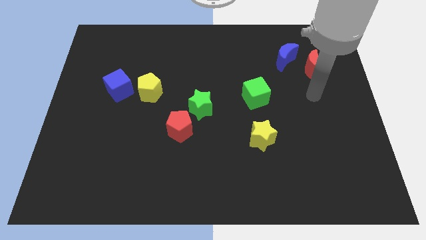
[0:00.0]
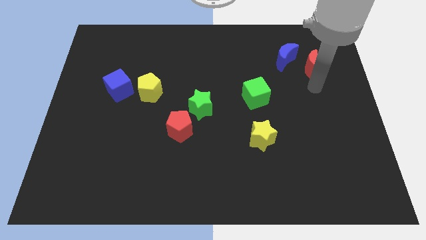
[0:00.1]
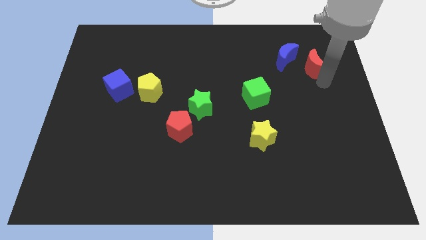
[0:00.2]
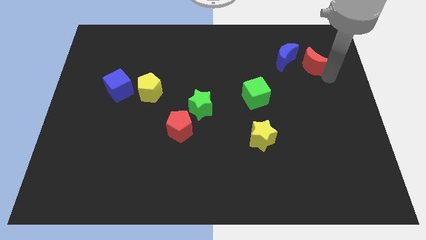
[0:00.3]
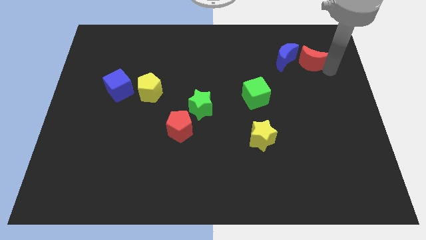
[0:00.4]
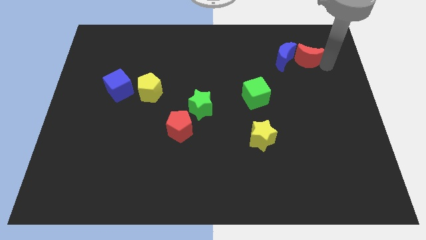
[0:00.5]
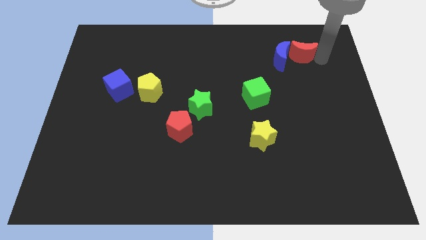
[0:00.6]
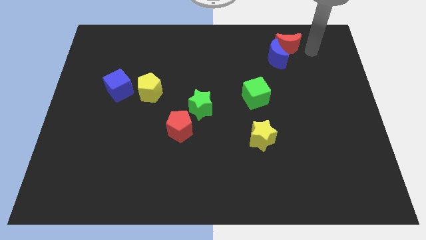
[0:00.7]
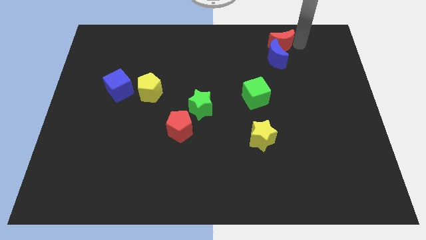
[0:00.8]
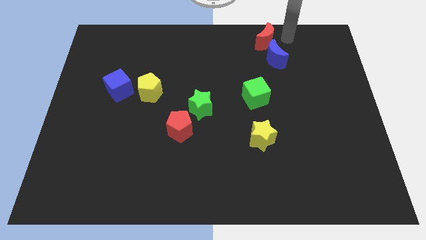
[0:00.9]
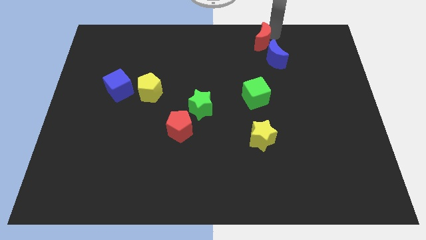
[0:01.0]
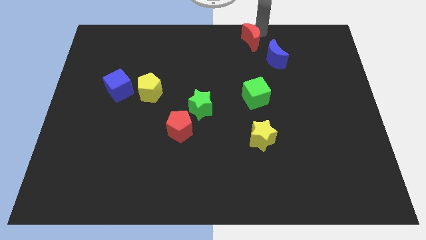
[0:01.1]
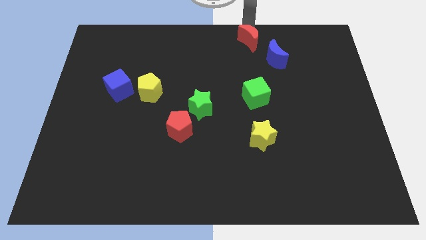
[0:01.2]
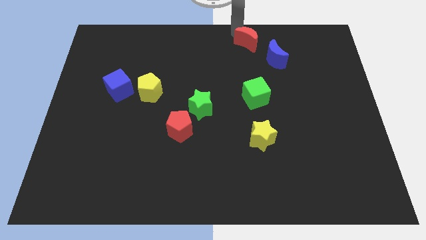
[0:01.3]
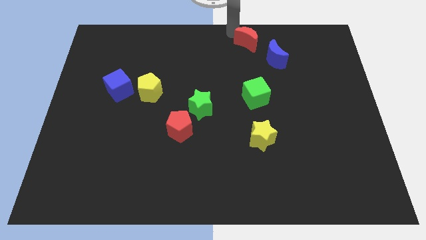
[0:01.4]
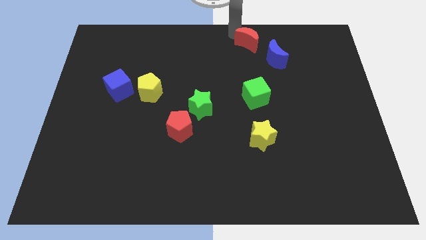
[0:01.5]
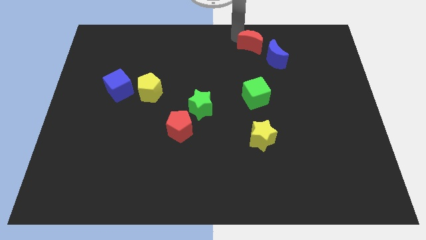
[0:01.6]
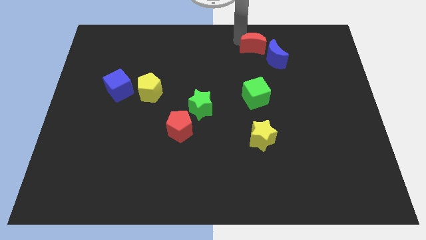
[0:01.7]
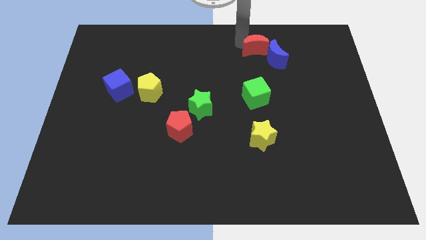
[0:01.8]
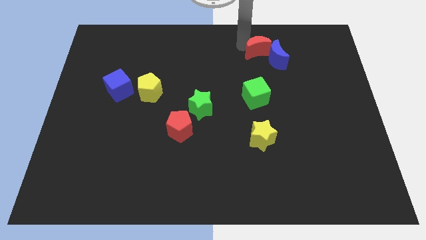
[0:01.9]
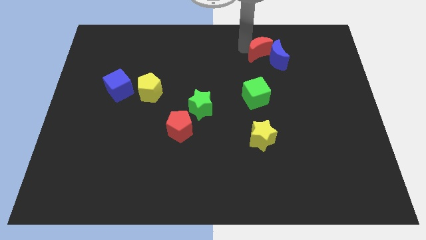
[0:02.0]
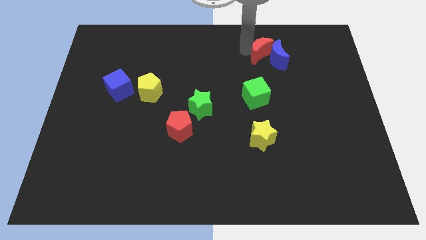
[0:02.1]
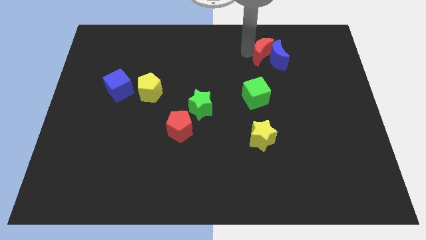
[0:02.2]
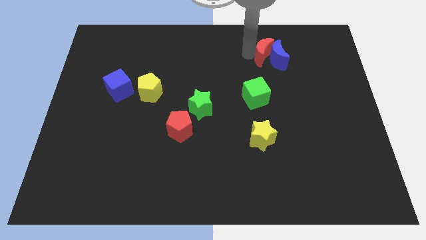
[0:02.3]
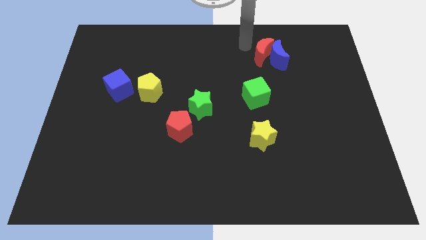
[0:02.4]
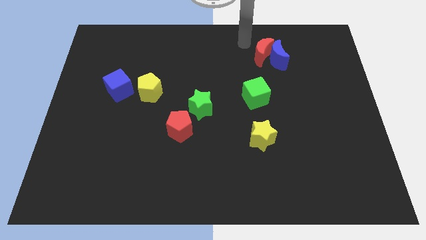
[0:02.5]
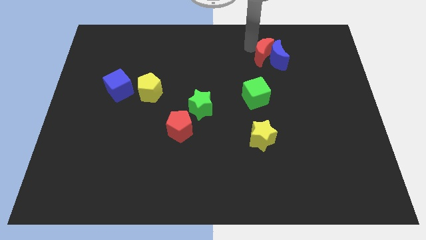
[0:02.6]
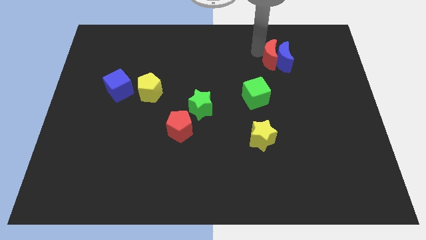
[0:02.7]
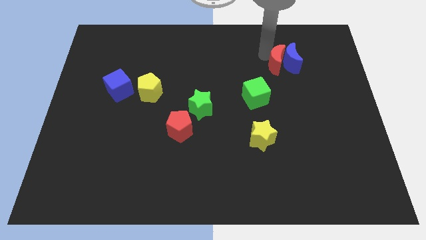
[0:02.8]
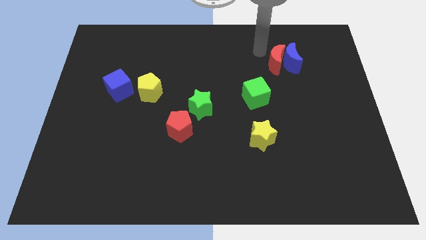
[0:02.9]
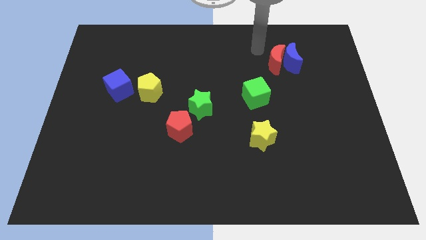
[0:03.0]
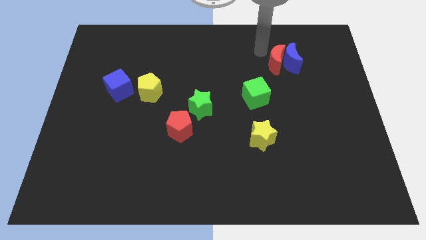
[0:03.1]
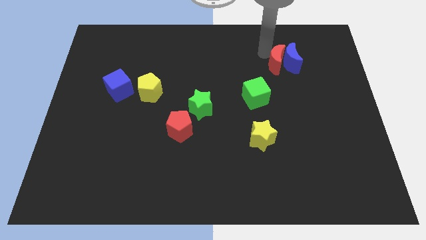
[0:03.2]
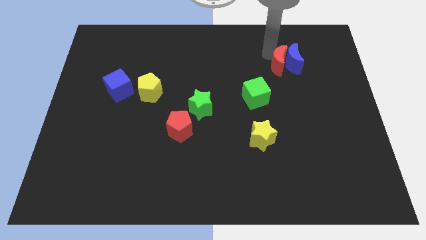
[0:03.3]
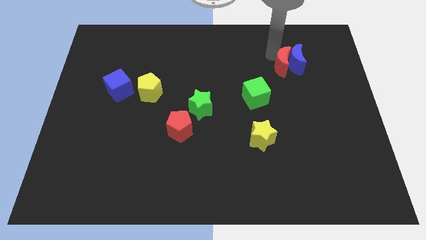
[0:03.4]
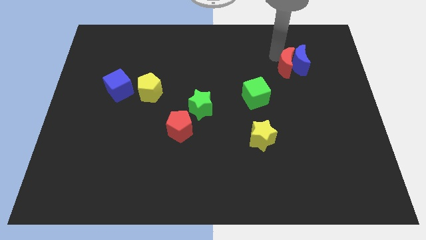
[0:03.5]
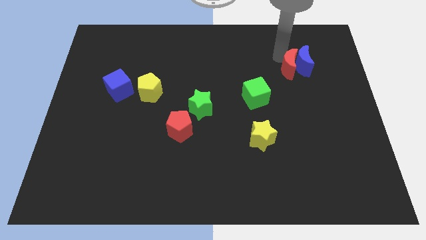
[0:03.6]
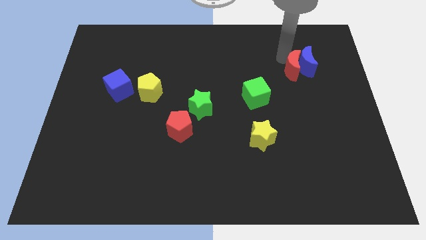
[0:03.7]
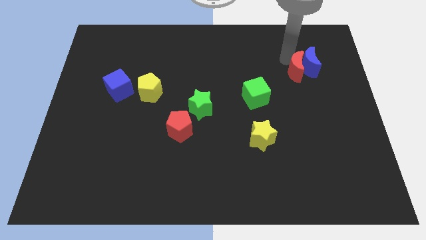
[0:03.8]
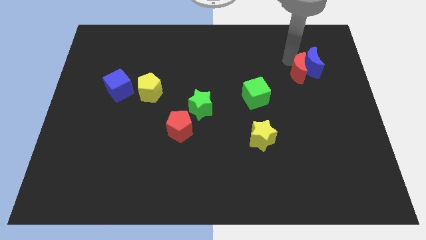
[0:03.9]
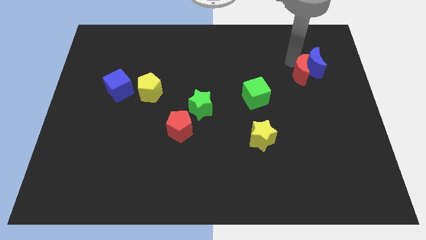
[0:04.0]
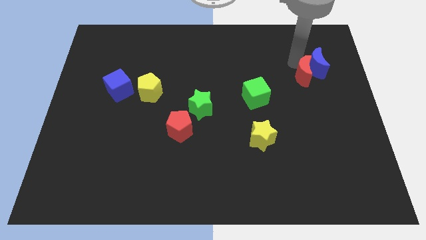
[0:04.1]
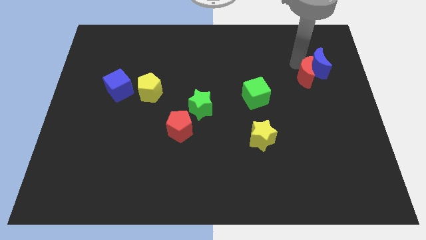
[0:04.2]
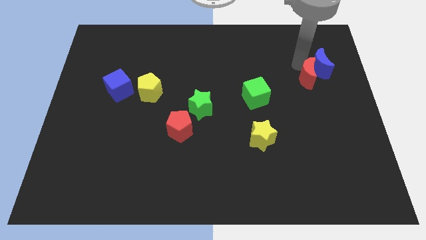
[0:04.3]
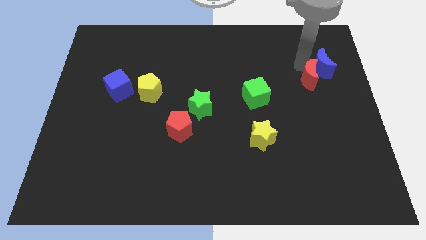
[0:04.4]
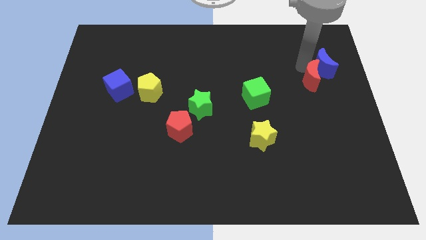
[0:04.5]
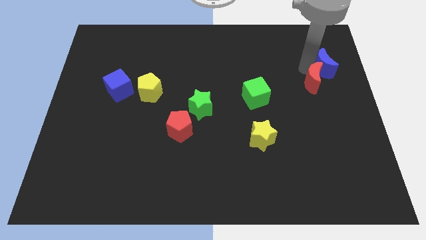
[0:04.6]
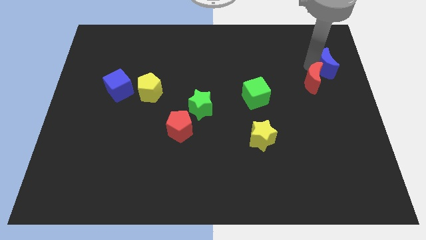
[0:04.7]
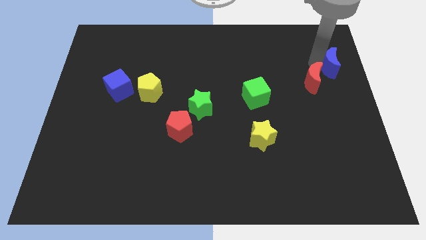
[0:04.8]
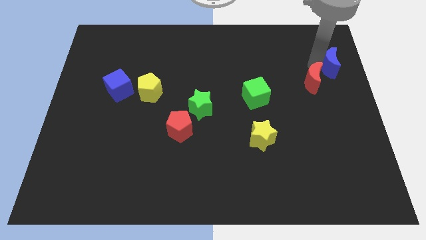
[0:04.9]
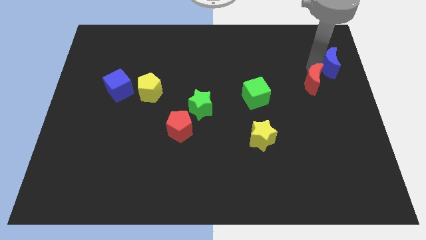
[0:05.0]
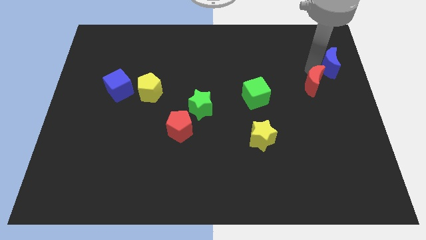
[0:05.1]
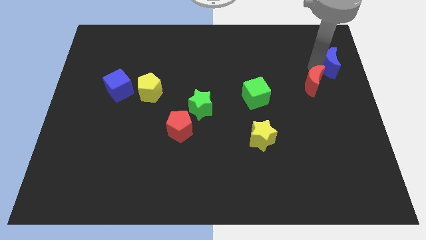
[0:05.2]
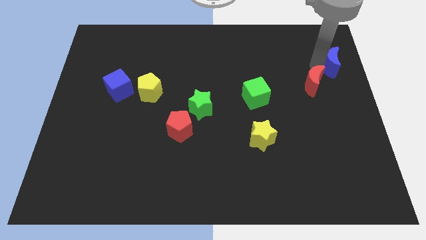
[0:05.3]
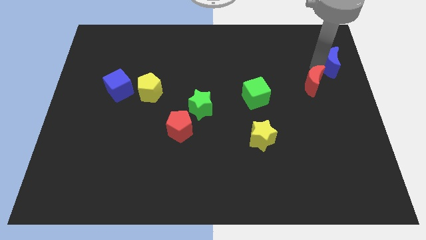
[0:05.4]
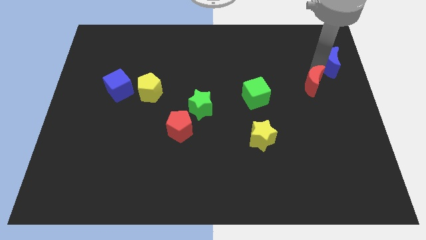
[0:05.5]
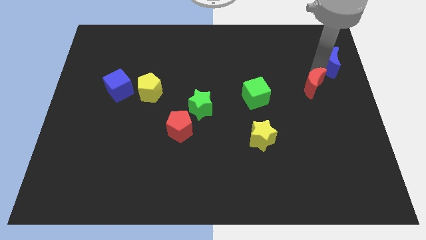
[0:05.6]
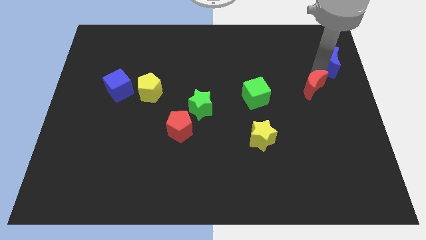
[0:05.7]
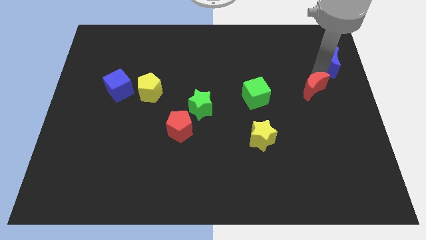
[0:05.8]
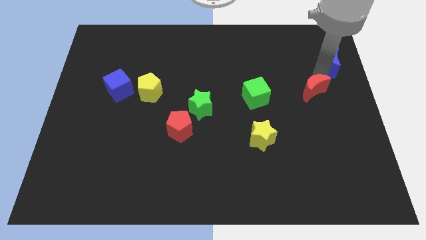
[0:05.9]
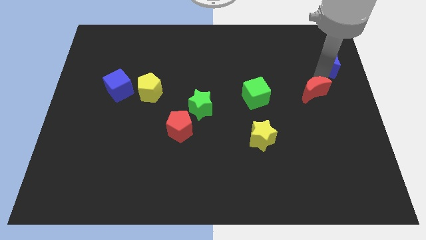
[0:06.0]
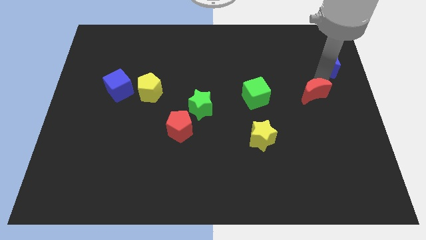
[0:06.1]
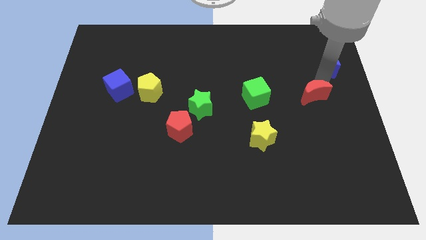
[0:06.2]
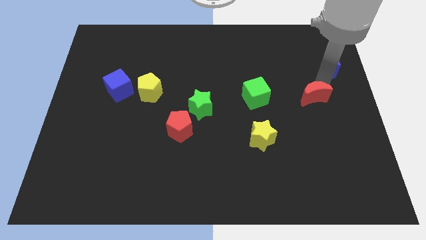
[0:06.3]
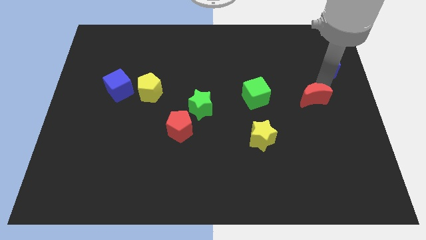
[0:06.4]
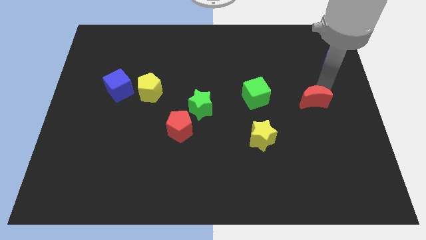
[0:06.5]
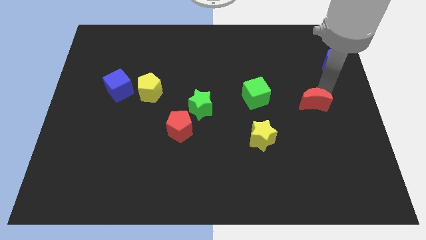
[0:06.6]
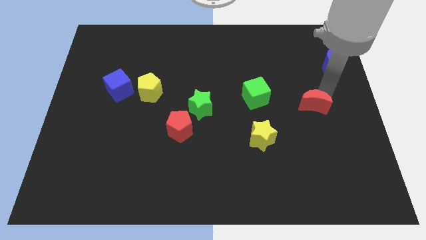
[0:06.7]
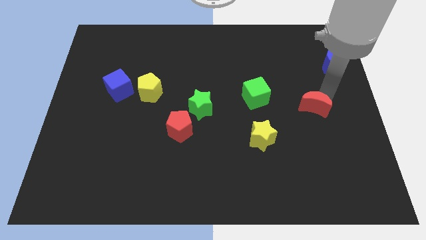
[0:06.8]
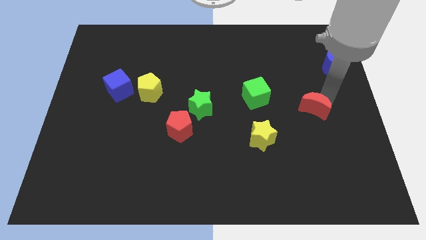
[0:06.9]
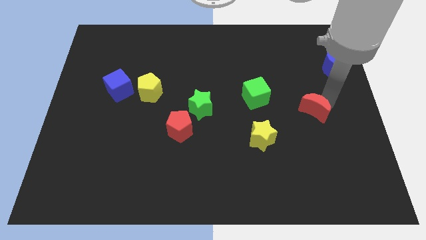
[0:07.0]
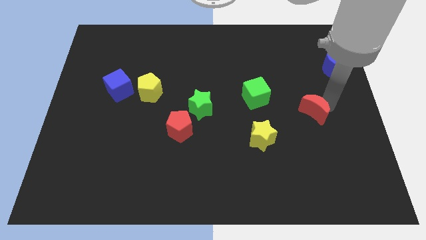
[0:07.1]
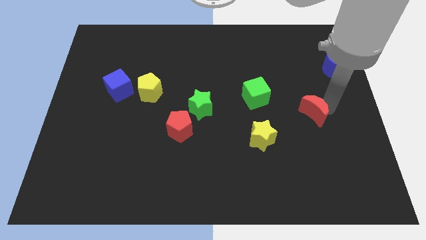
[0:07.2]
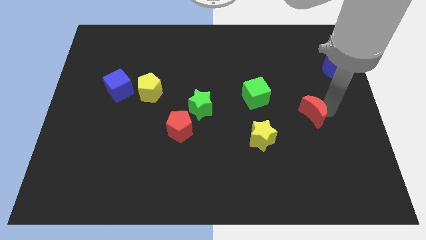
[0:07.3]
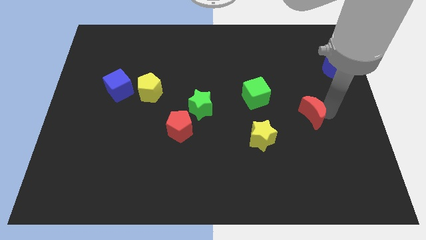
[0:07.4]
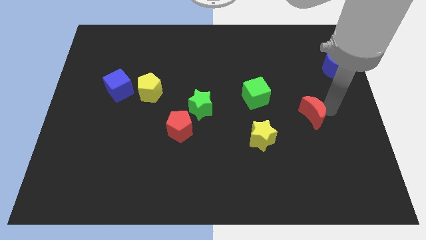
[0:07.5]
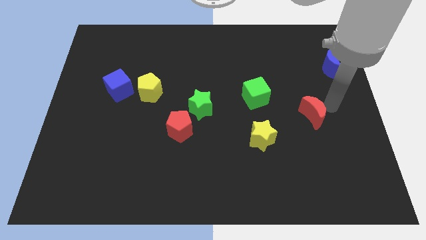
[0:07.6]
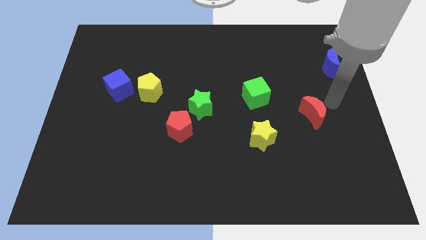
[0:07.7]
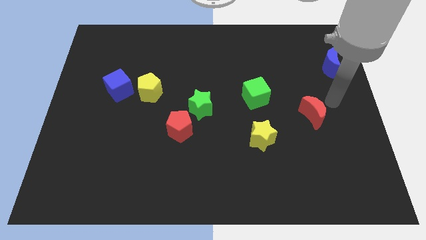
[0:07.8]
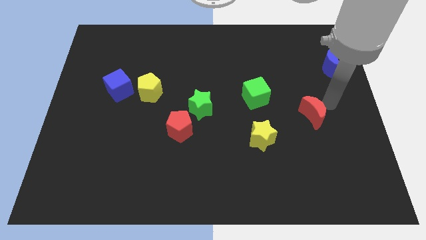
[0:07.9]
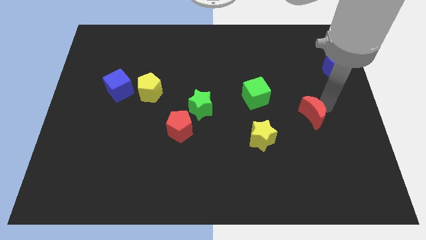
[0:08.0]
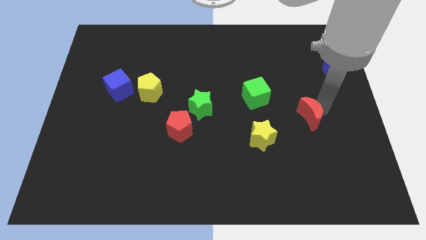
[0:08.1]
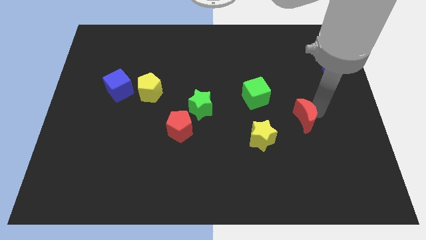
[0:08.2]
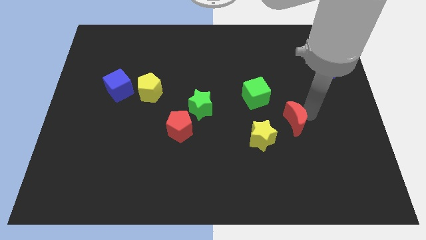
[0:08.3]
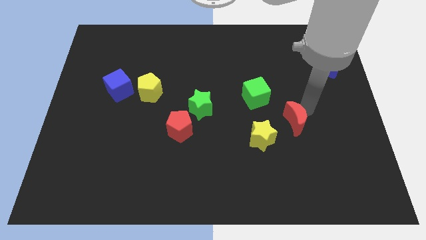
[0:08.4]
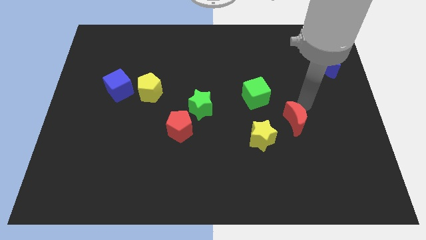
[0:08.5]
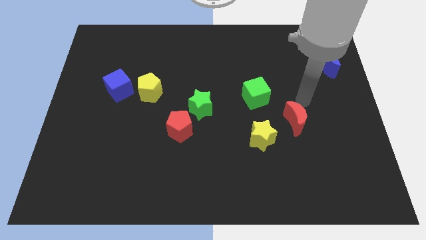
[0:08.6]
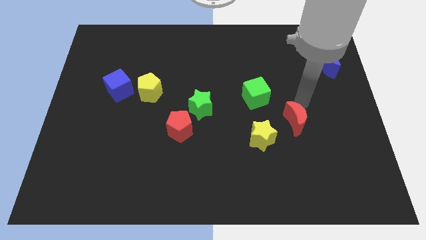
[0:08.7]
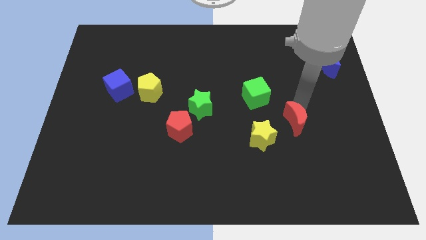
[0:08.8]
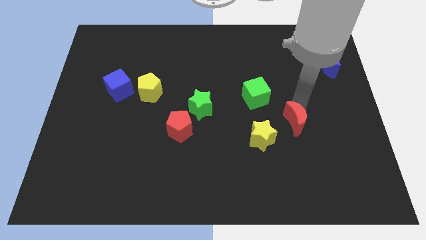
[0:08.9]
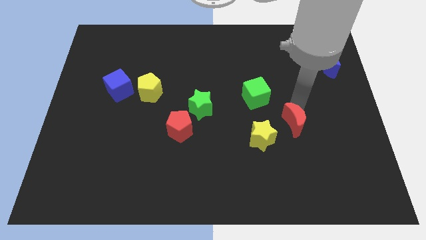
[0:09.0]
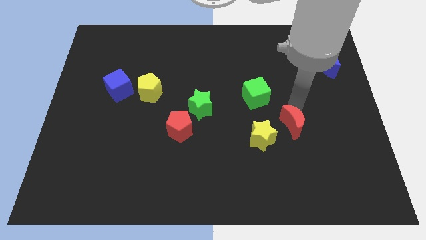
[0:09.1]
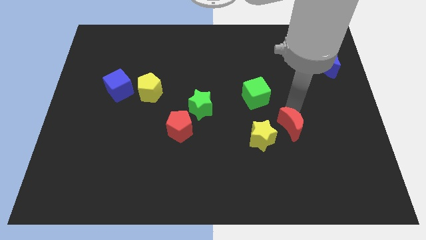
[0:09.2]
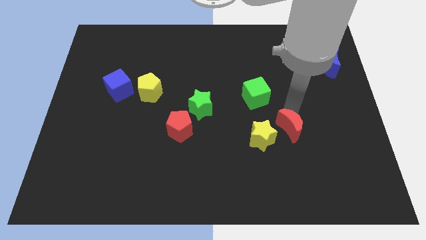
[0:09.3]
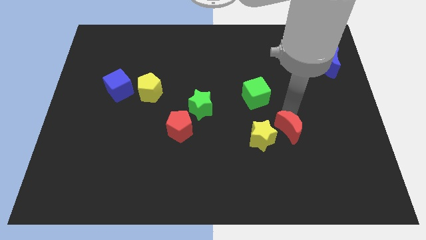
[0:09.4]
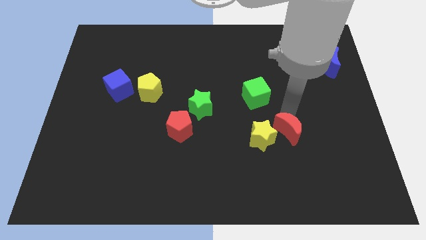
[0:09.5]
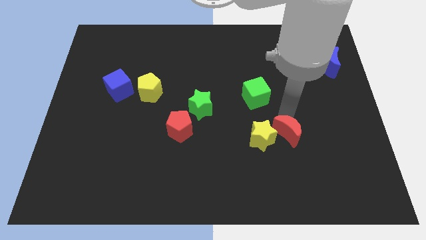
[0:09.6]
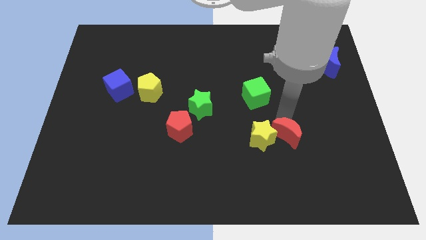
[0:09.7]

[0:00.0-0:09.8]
put the red moon to the bottom right of the yellow star
